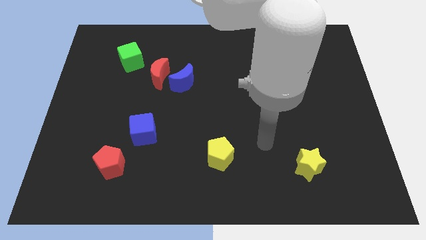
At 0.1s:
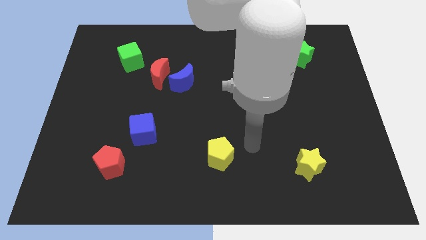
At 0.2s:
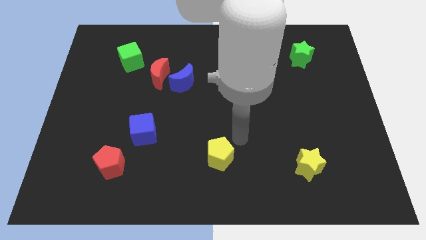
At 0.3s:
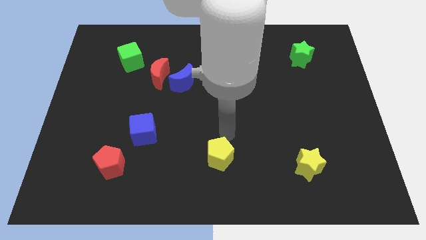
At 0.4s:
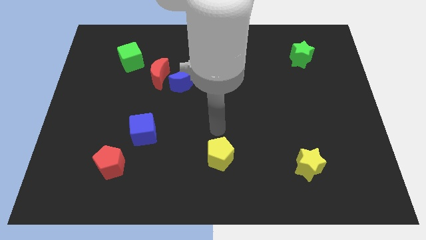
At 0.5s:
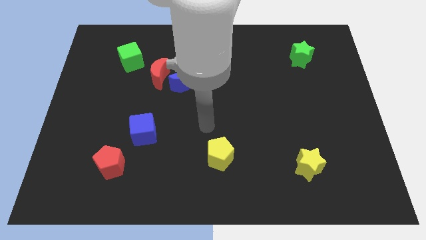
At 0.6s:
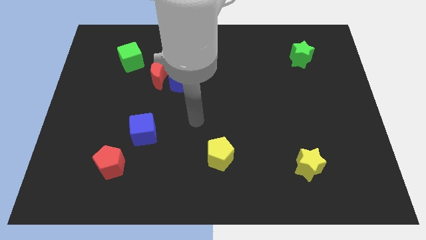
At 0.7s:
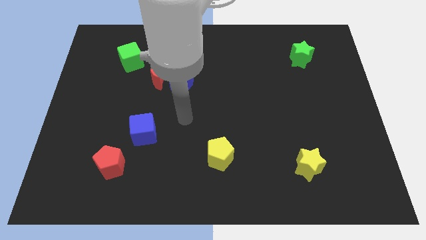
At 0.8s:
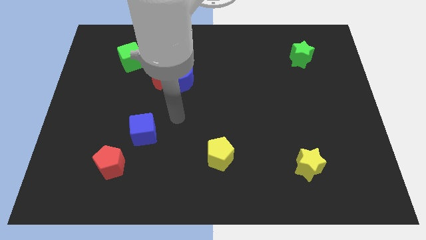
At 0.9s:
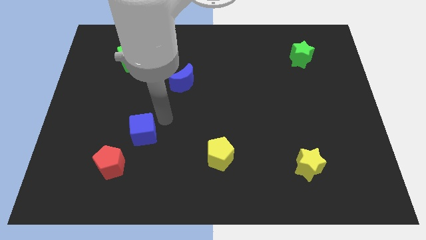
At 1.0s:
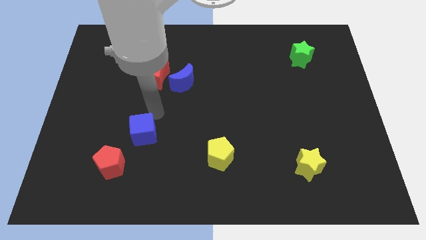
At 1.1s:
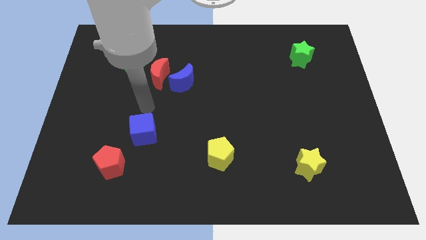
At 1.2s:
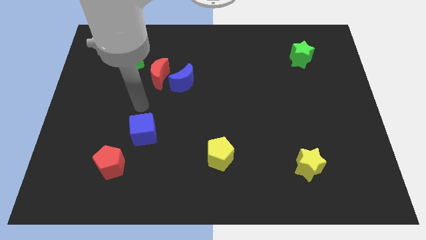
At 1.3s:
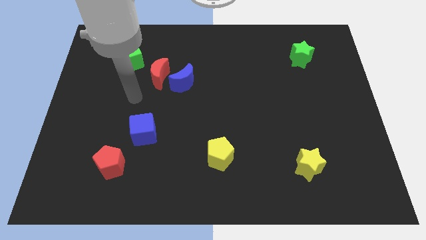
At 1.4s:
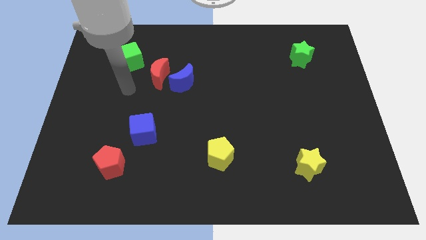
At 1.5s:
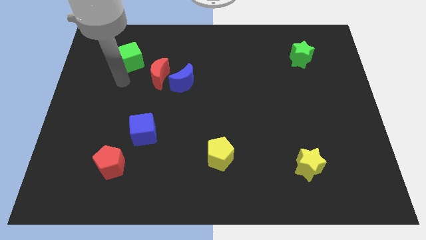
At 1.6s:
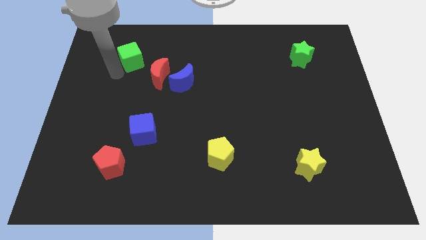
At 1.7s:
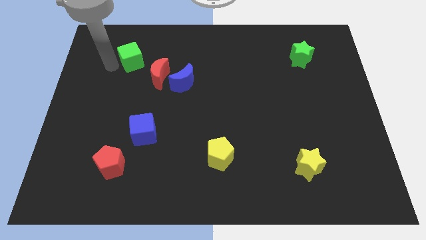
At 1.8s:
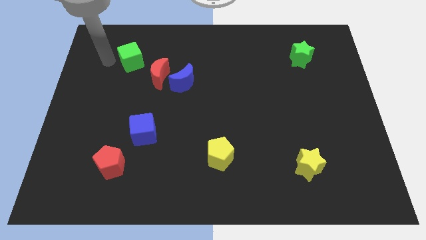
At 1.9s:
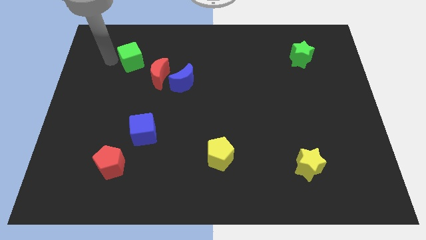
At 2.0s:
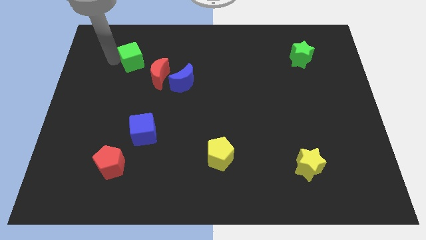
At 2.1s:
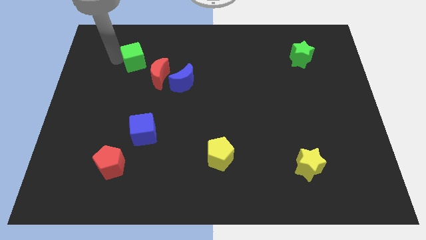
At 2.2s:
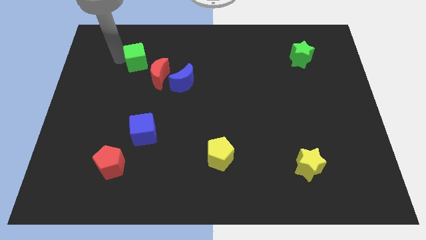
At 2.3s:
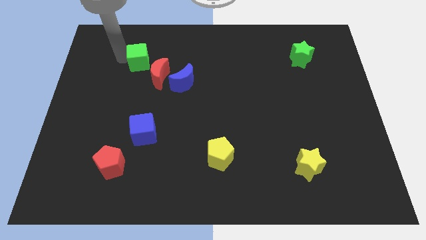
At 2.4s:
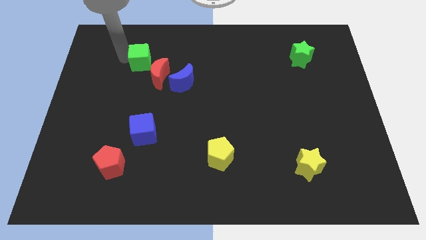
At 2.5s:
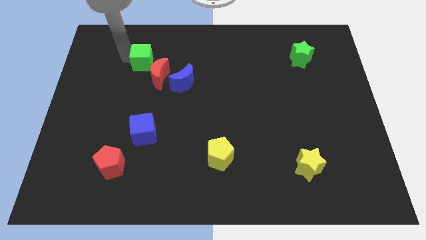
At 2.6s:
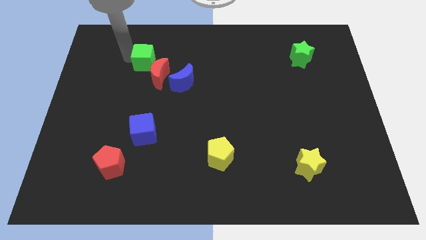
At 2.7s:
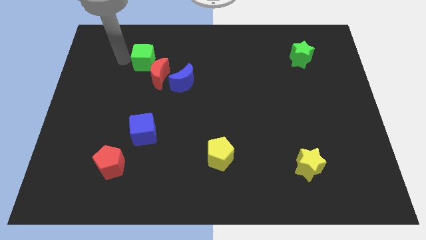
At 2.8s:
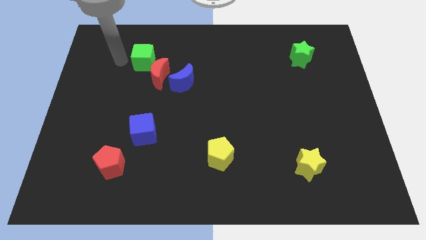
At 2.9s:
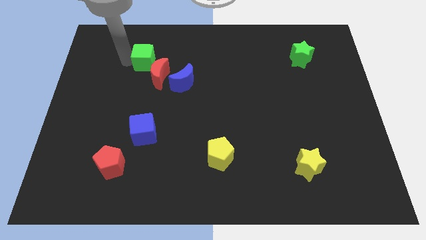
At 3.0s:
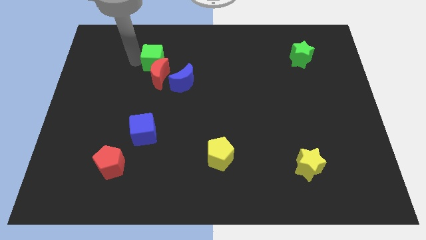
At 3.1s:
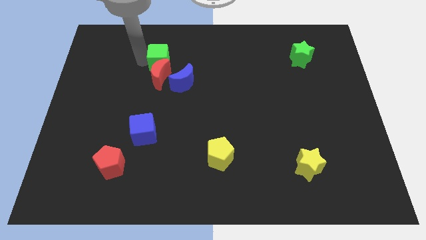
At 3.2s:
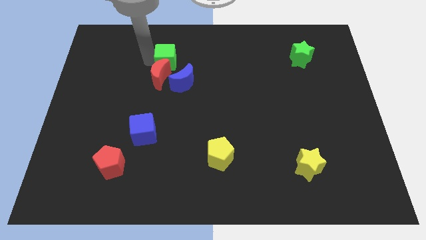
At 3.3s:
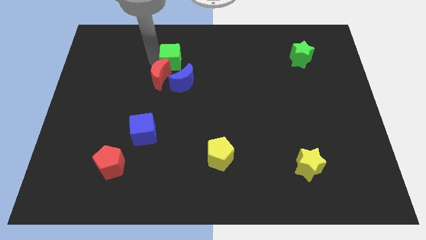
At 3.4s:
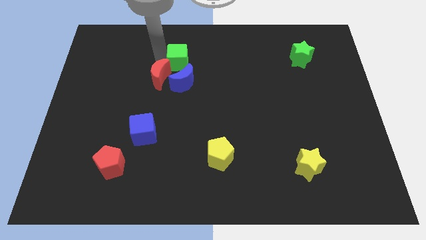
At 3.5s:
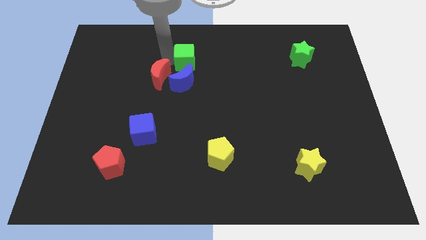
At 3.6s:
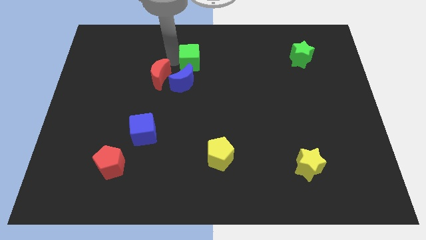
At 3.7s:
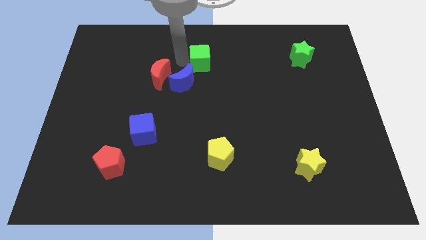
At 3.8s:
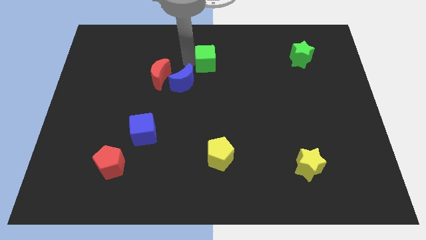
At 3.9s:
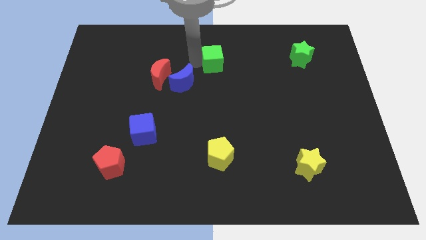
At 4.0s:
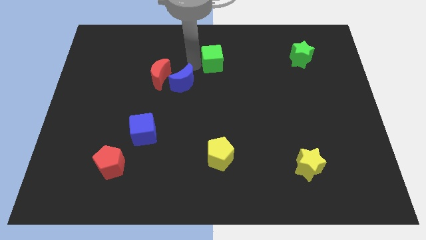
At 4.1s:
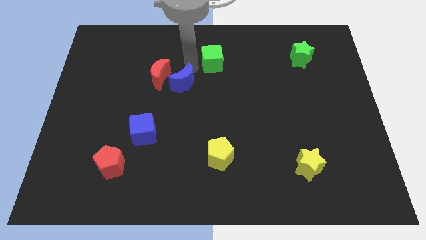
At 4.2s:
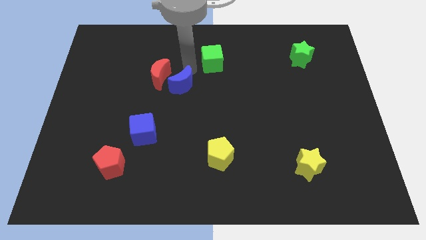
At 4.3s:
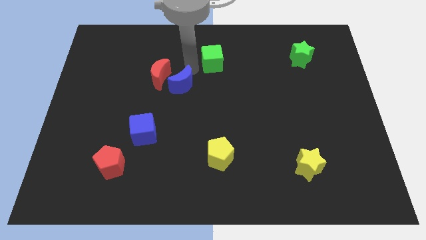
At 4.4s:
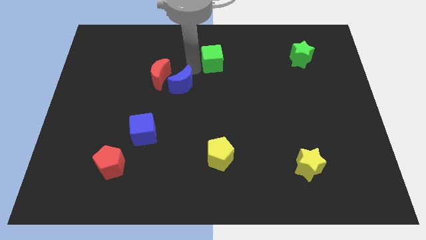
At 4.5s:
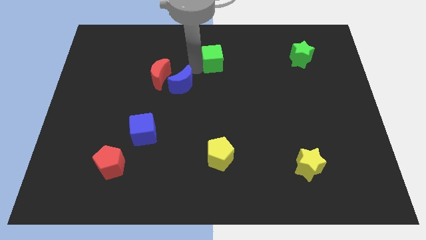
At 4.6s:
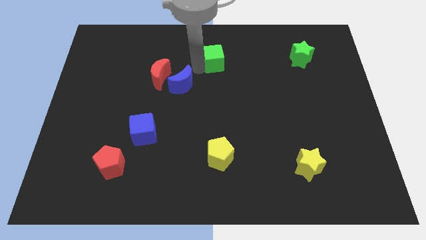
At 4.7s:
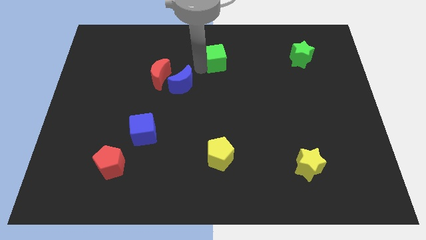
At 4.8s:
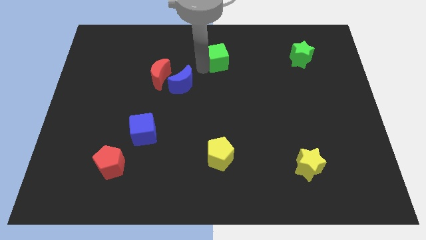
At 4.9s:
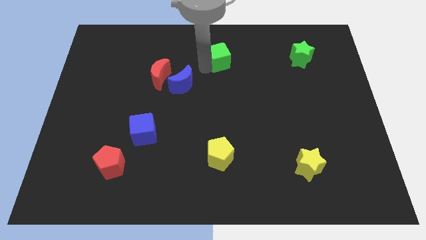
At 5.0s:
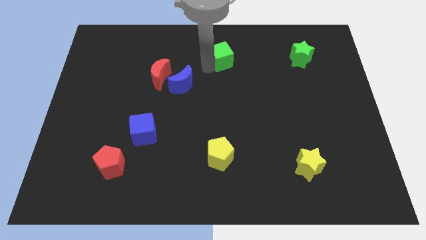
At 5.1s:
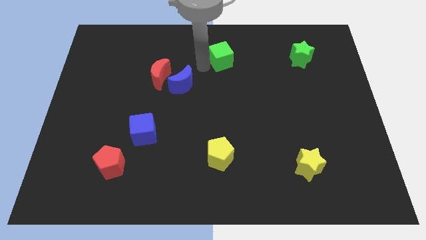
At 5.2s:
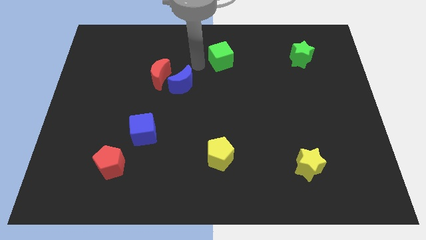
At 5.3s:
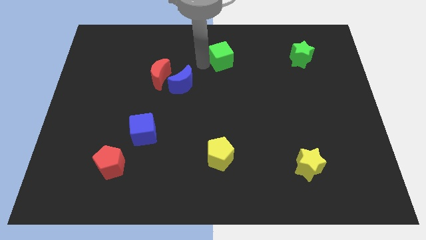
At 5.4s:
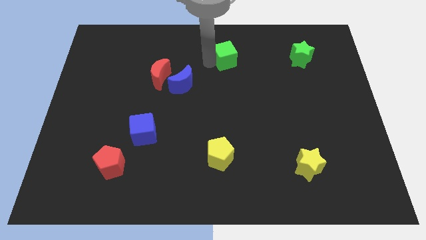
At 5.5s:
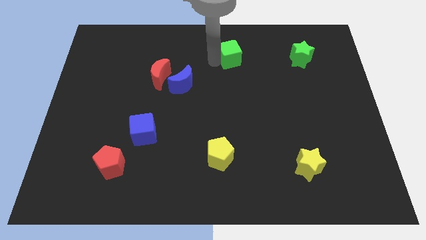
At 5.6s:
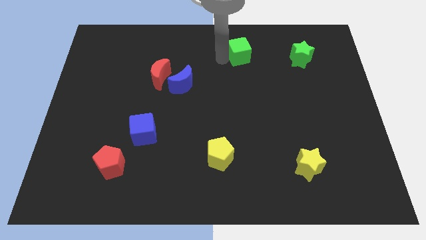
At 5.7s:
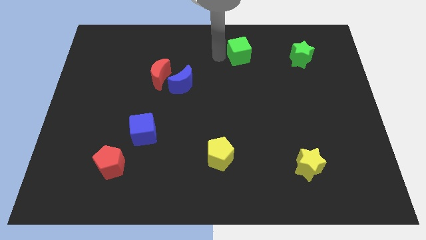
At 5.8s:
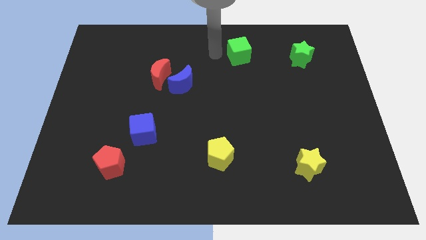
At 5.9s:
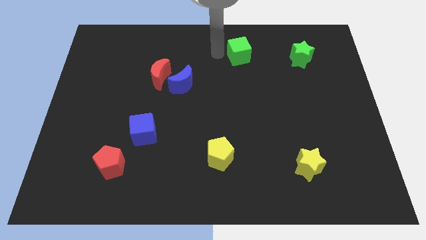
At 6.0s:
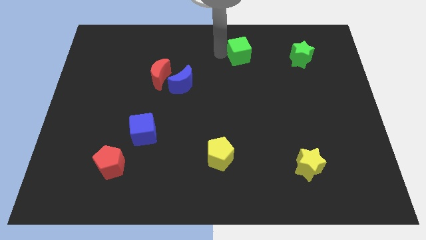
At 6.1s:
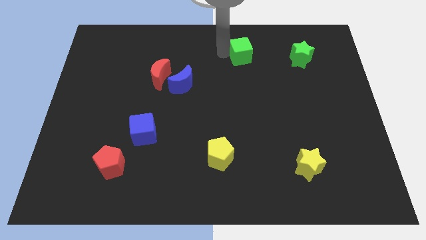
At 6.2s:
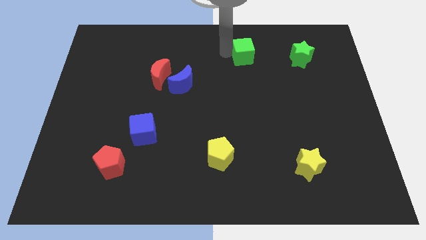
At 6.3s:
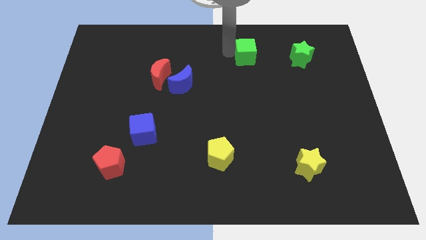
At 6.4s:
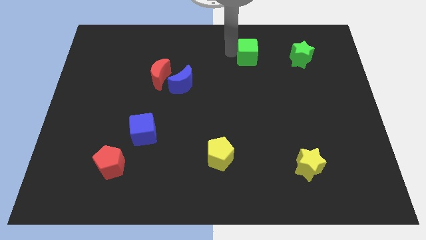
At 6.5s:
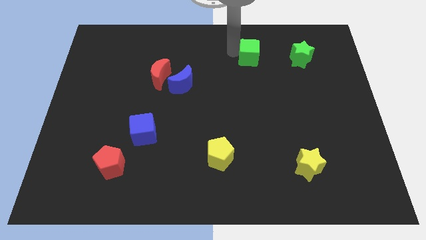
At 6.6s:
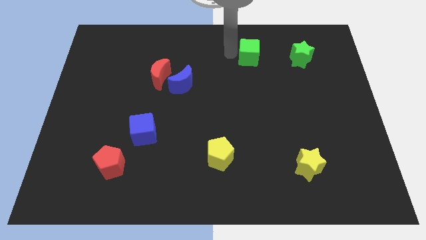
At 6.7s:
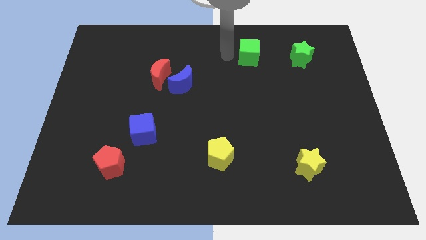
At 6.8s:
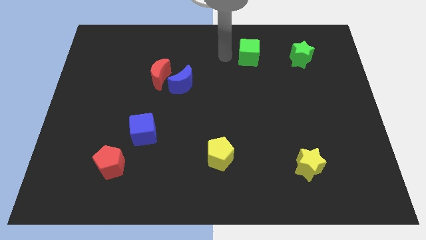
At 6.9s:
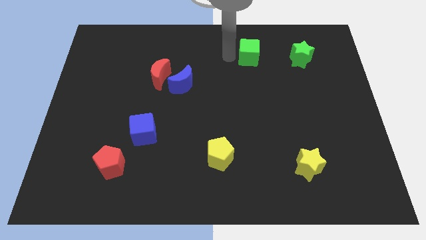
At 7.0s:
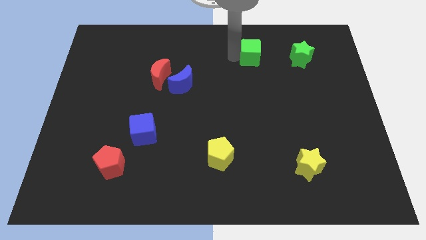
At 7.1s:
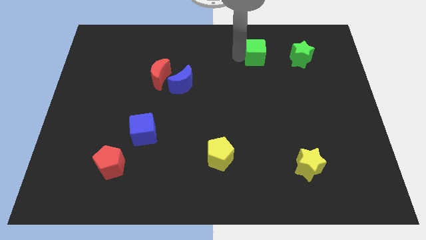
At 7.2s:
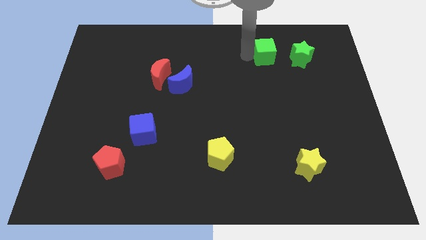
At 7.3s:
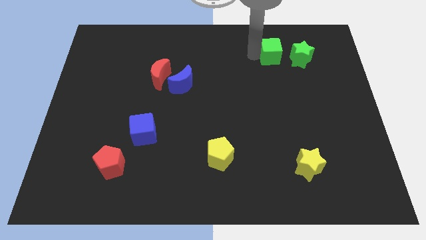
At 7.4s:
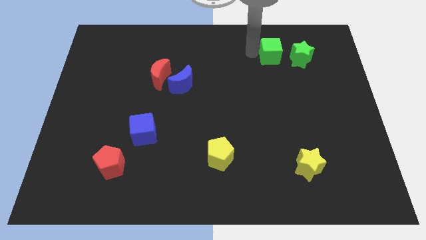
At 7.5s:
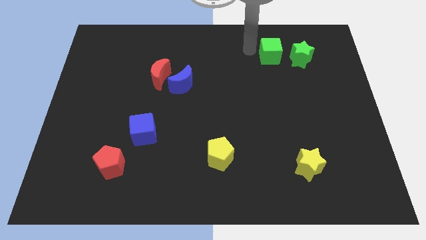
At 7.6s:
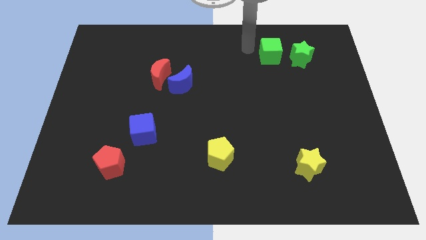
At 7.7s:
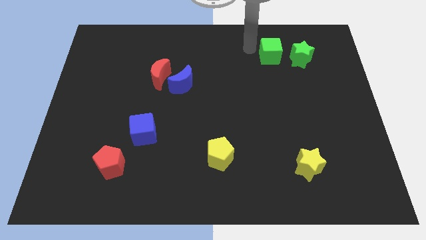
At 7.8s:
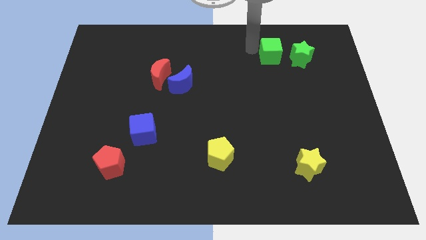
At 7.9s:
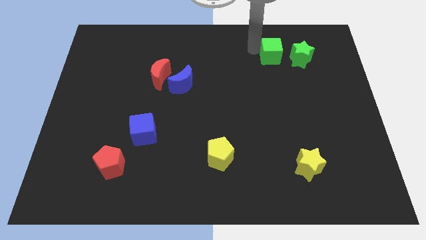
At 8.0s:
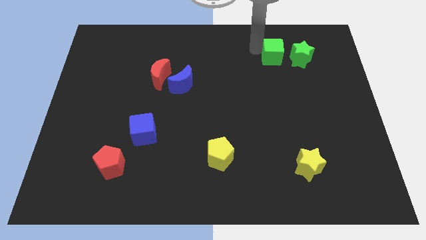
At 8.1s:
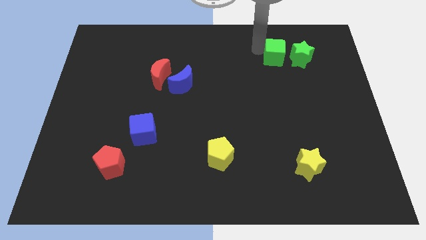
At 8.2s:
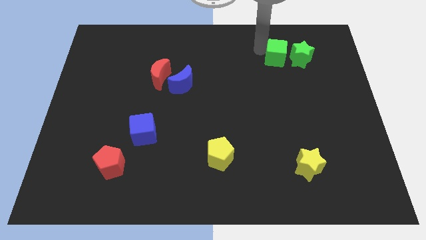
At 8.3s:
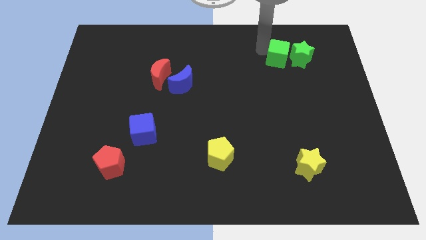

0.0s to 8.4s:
move the green cube to the green star
